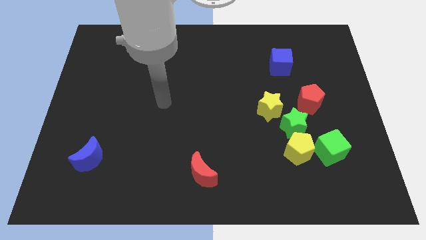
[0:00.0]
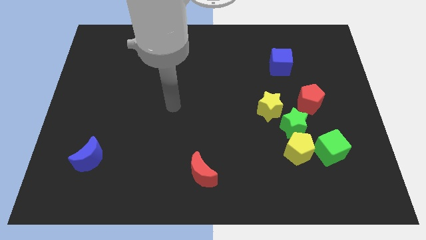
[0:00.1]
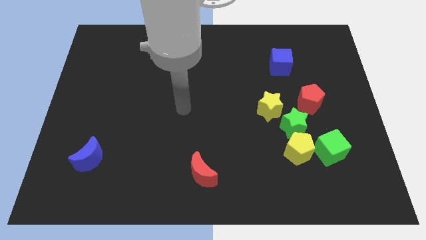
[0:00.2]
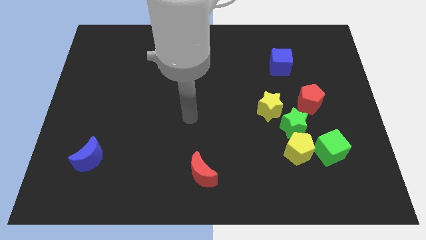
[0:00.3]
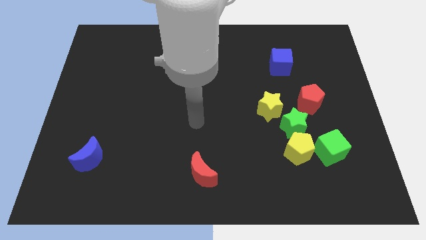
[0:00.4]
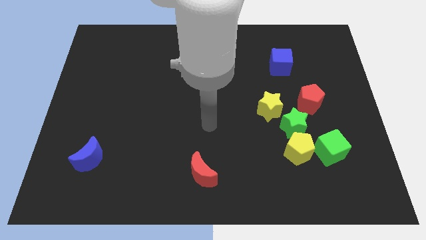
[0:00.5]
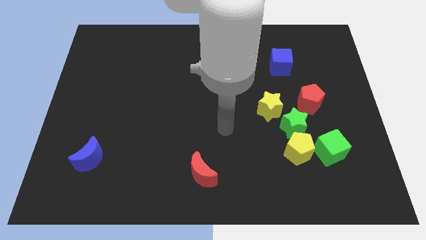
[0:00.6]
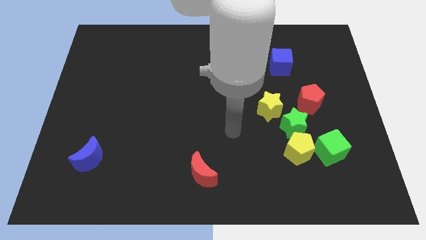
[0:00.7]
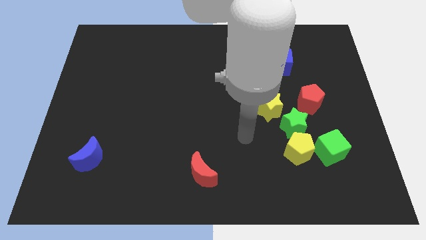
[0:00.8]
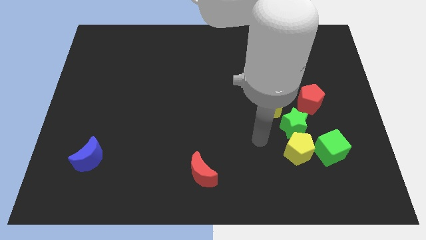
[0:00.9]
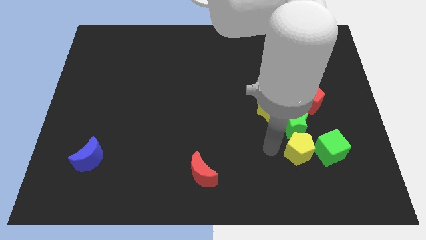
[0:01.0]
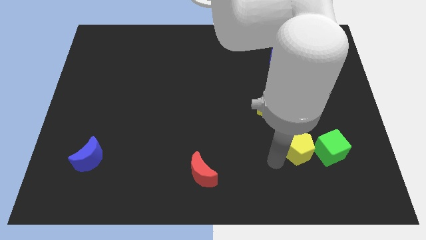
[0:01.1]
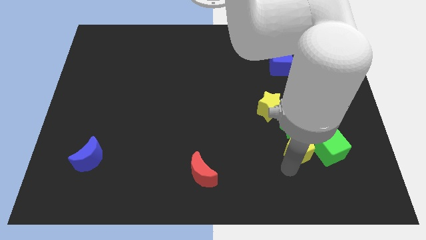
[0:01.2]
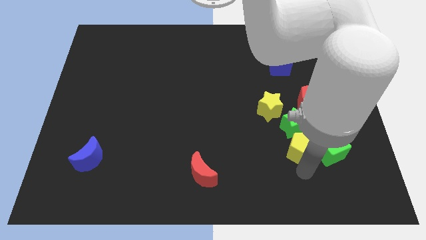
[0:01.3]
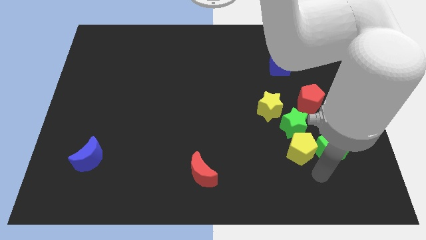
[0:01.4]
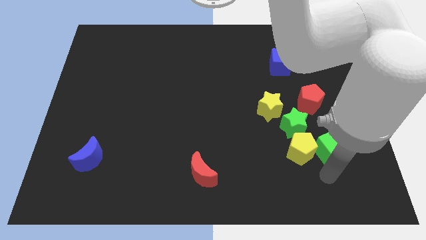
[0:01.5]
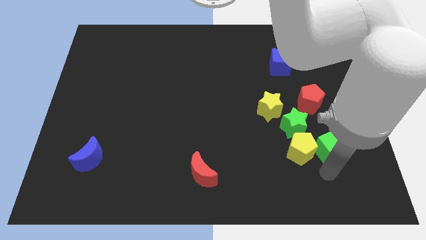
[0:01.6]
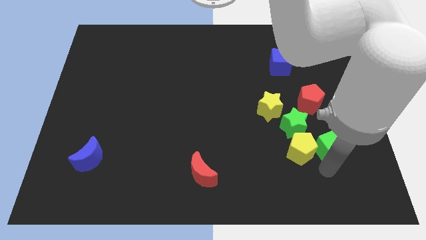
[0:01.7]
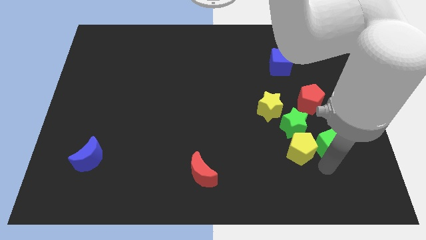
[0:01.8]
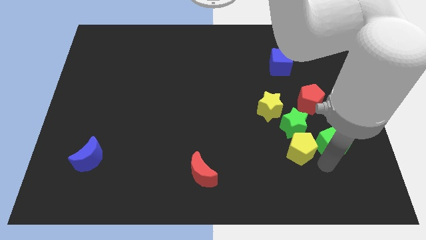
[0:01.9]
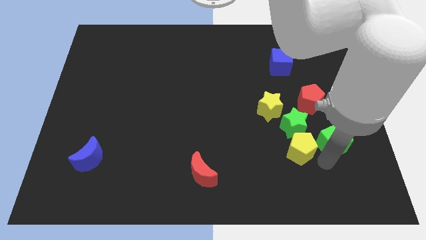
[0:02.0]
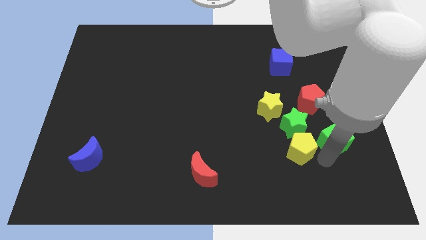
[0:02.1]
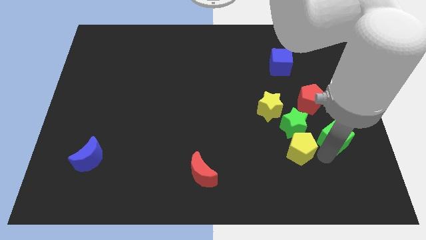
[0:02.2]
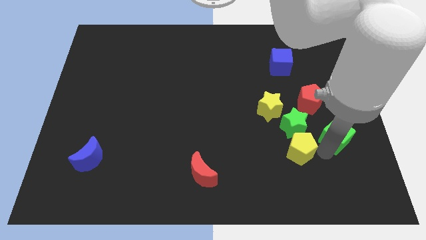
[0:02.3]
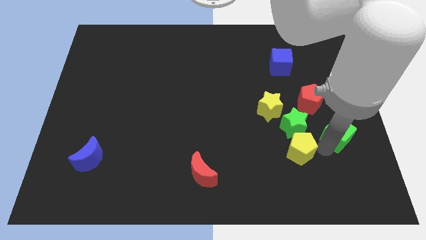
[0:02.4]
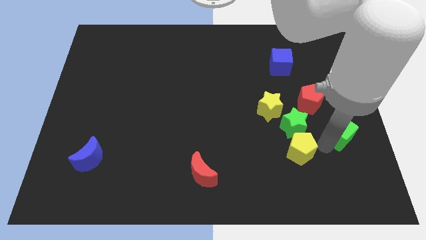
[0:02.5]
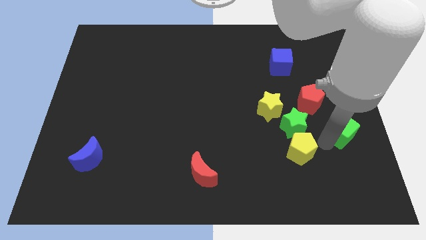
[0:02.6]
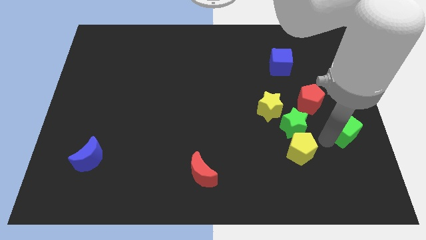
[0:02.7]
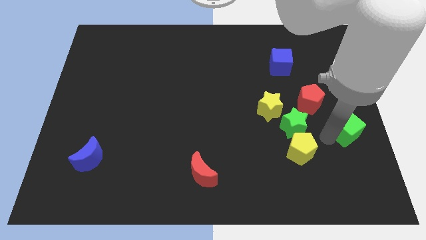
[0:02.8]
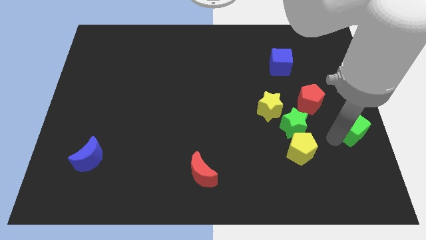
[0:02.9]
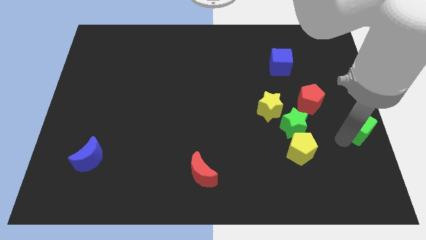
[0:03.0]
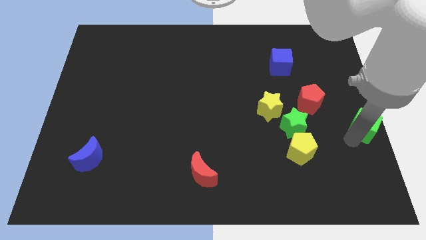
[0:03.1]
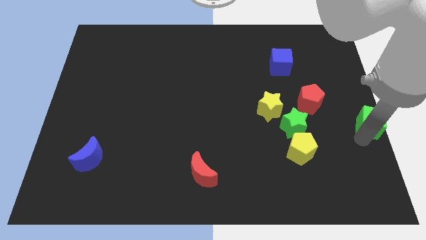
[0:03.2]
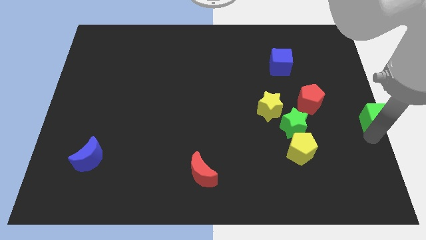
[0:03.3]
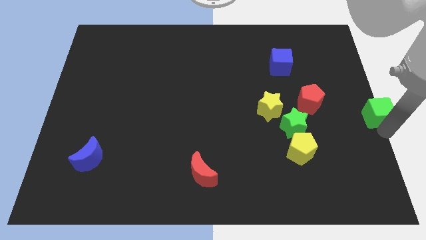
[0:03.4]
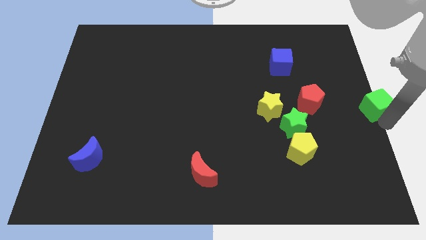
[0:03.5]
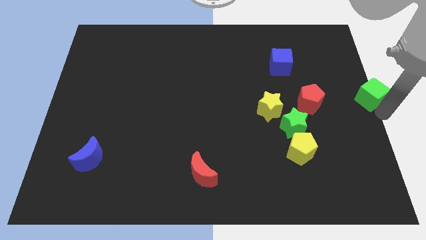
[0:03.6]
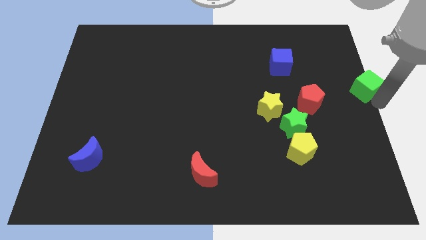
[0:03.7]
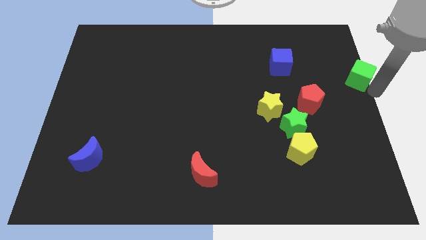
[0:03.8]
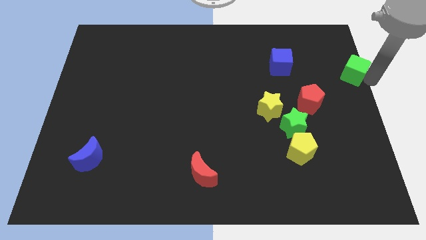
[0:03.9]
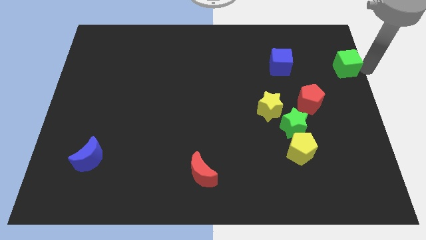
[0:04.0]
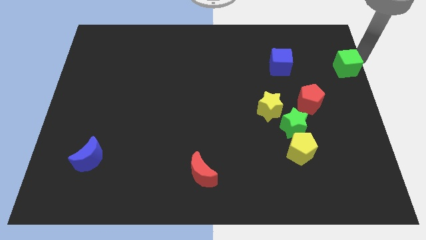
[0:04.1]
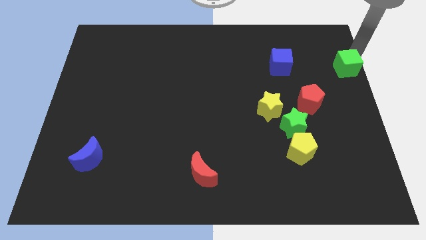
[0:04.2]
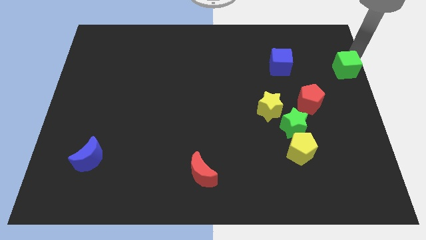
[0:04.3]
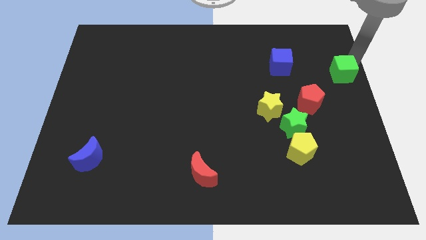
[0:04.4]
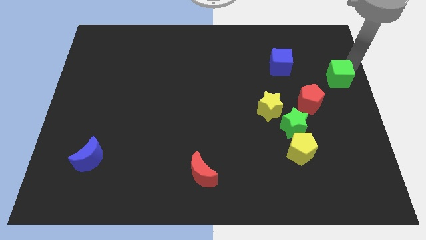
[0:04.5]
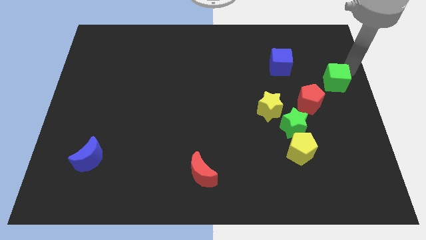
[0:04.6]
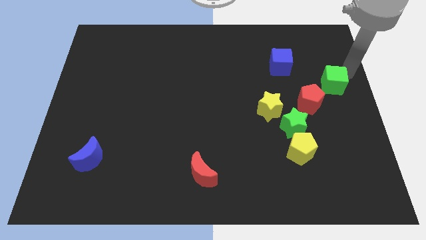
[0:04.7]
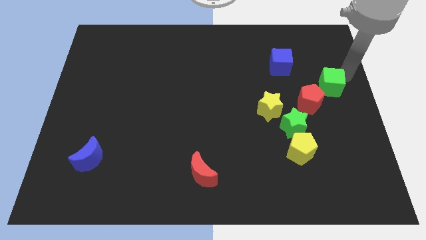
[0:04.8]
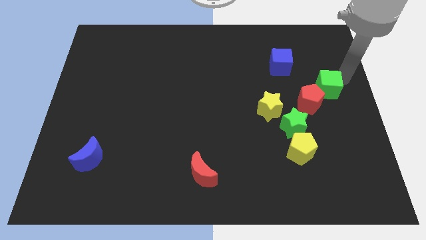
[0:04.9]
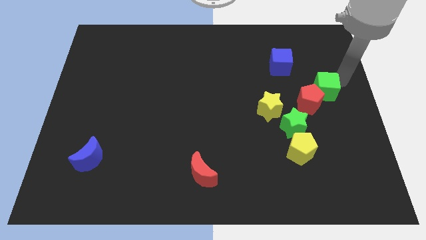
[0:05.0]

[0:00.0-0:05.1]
slide the green cube next to the red pentagon

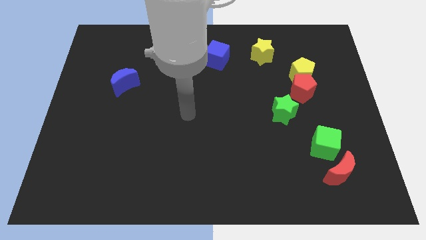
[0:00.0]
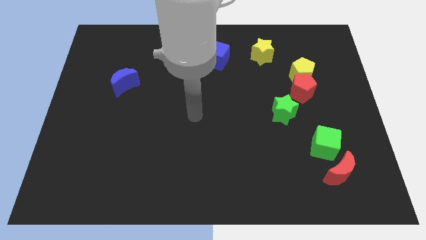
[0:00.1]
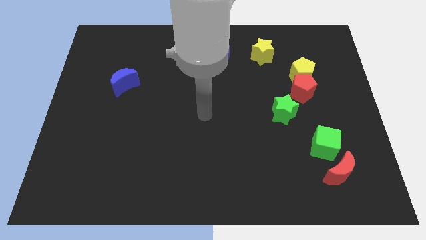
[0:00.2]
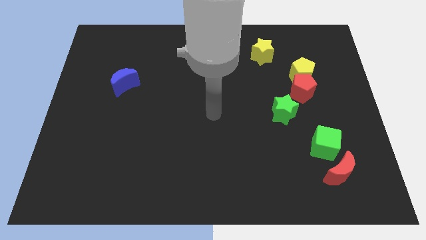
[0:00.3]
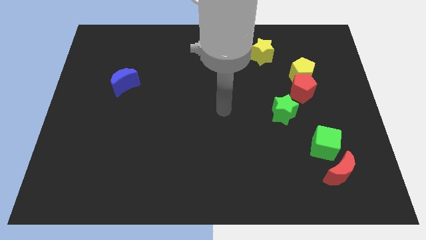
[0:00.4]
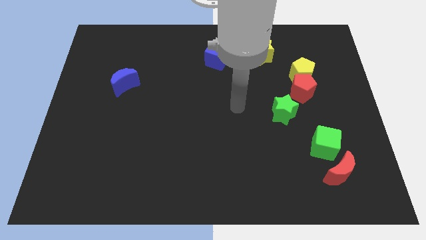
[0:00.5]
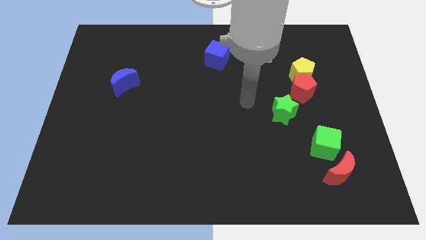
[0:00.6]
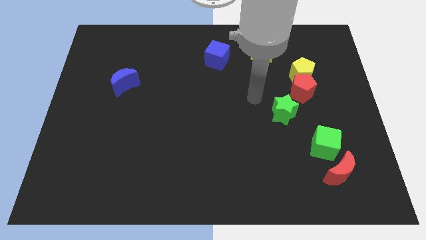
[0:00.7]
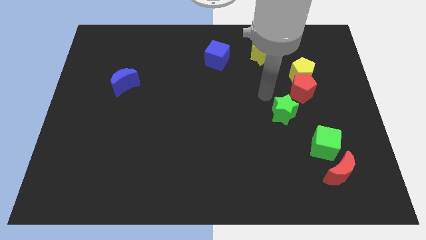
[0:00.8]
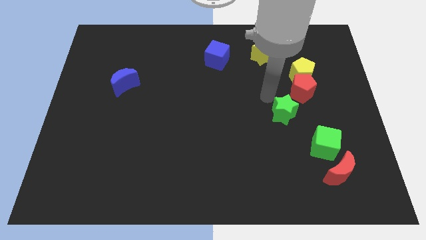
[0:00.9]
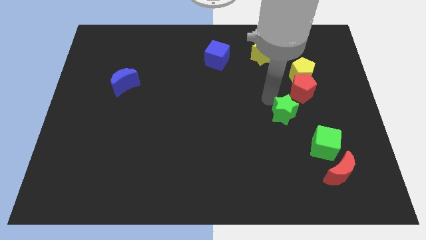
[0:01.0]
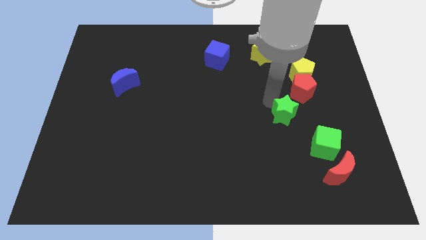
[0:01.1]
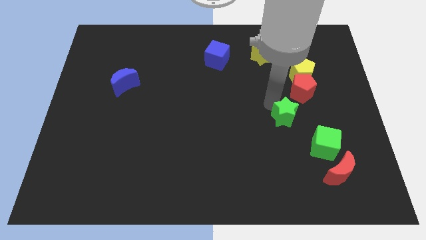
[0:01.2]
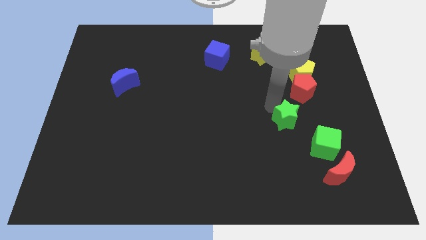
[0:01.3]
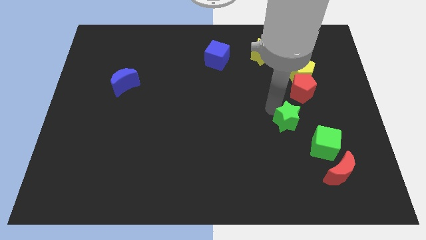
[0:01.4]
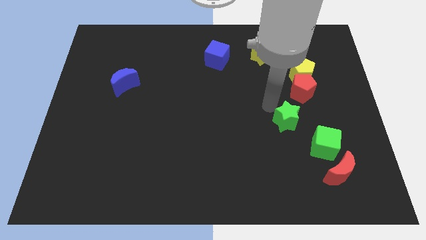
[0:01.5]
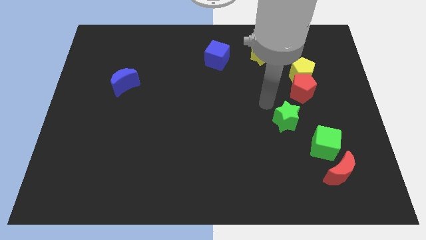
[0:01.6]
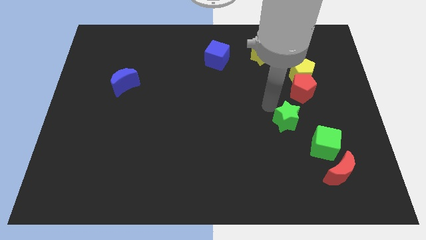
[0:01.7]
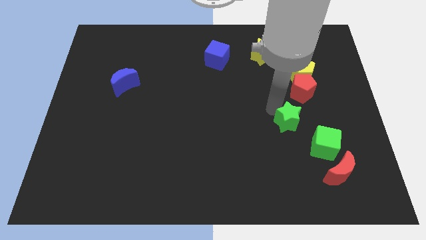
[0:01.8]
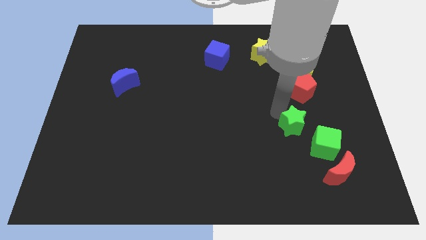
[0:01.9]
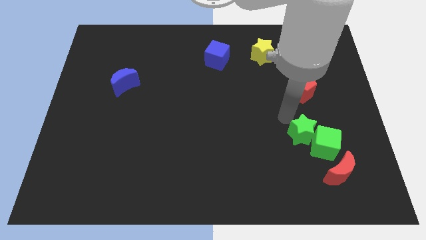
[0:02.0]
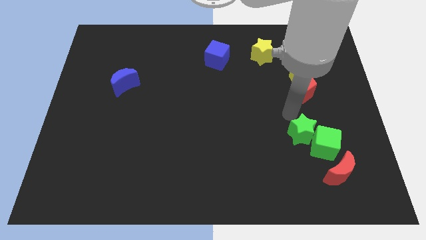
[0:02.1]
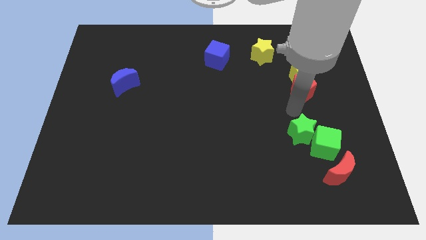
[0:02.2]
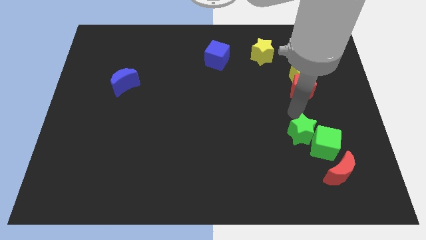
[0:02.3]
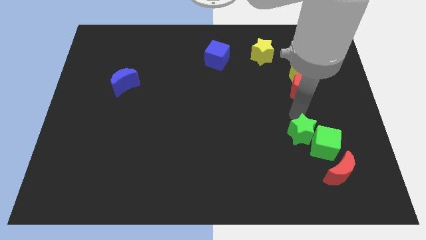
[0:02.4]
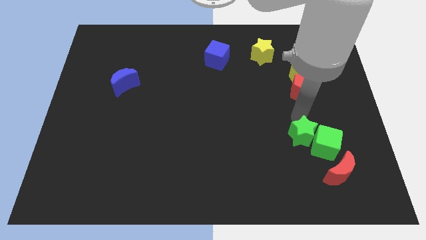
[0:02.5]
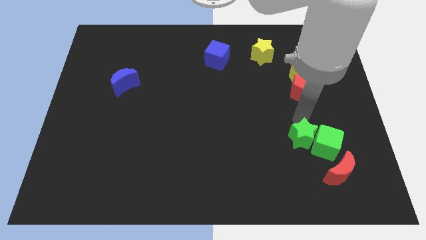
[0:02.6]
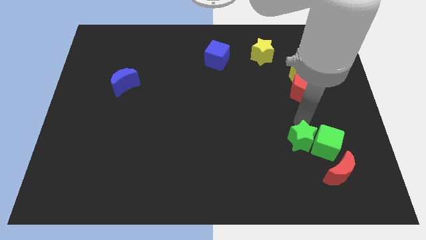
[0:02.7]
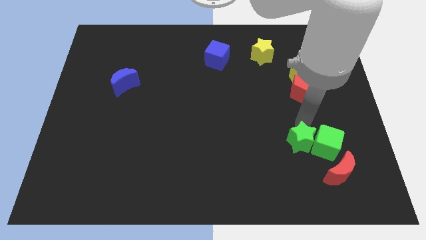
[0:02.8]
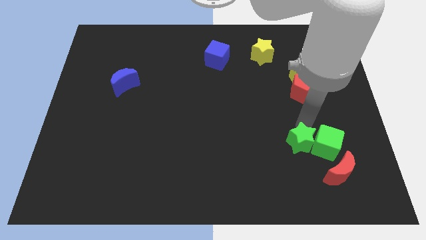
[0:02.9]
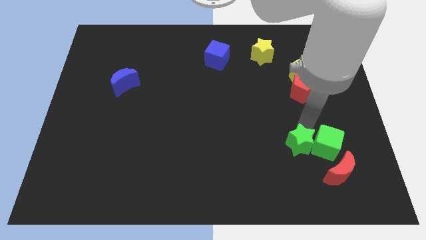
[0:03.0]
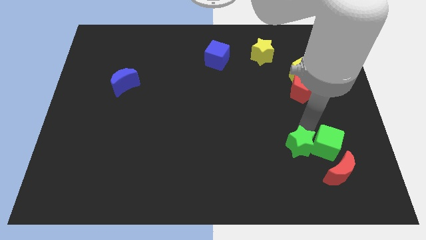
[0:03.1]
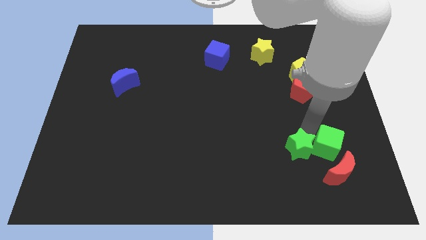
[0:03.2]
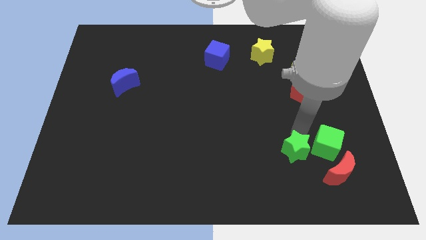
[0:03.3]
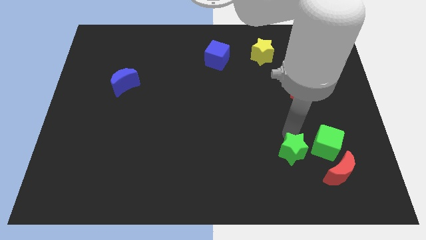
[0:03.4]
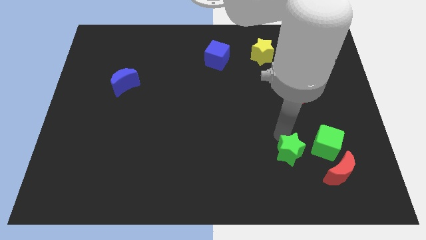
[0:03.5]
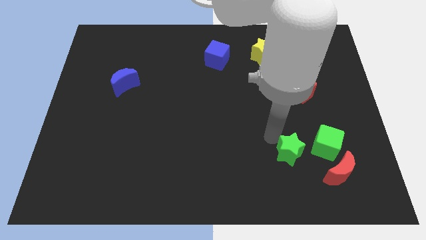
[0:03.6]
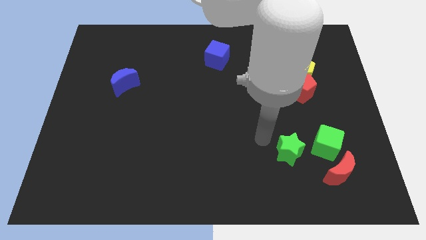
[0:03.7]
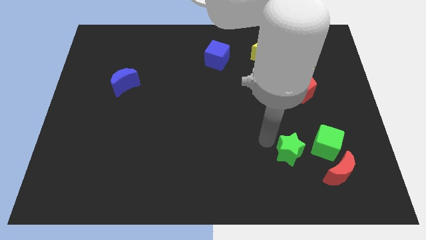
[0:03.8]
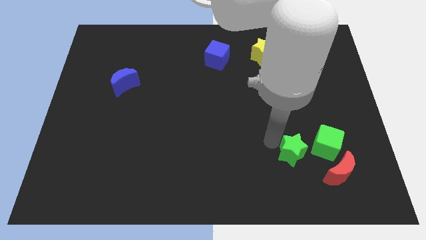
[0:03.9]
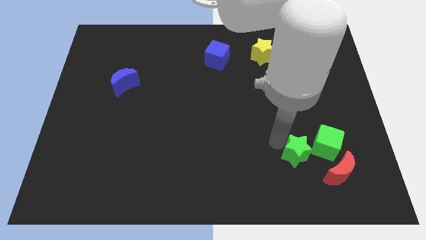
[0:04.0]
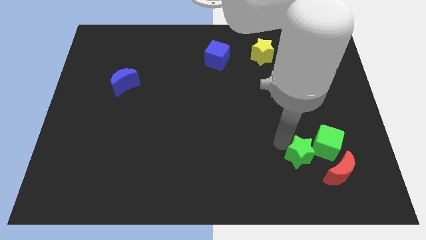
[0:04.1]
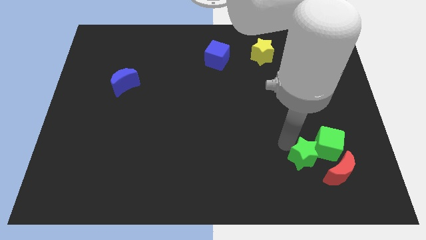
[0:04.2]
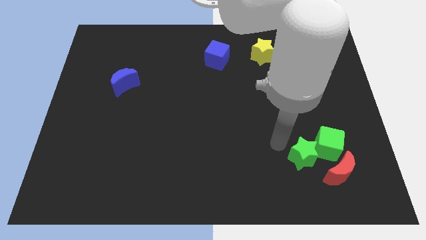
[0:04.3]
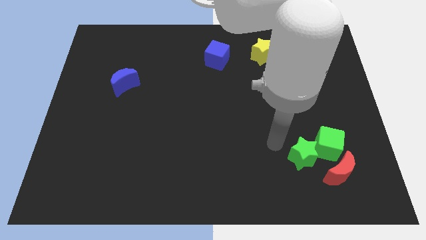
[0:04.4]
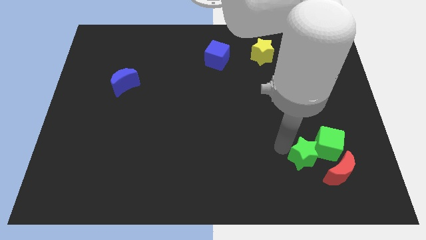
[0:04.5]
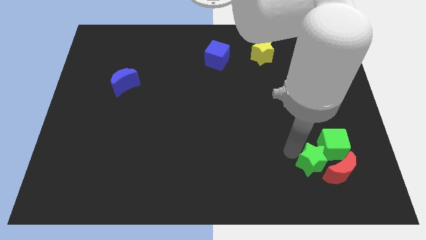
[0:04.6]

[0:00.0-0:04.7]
push the green star close to the red moon
